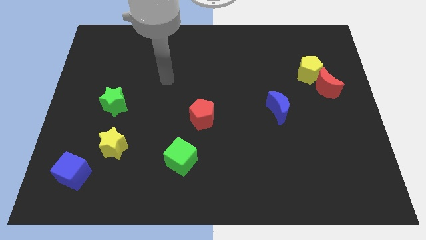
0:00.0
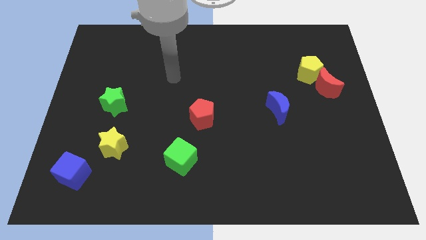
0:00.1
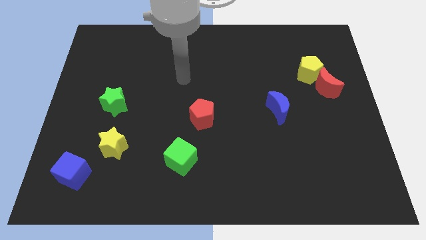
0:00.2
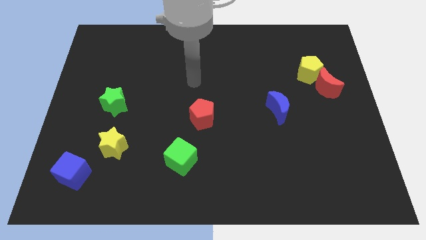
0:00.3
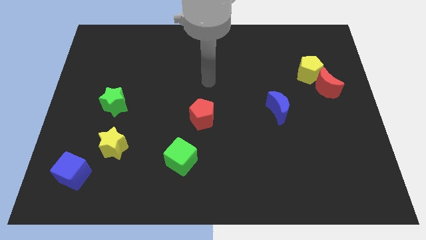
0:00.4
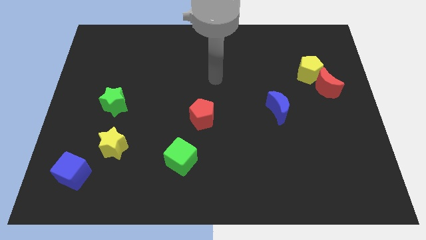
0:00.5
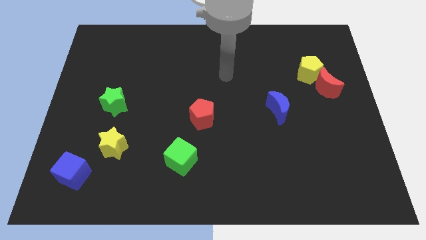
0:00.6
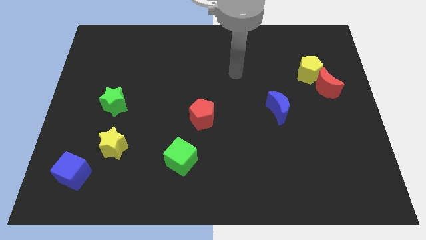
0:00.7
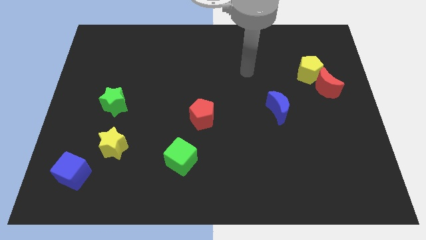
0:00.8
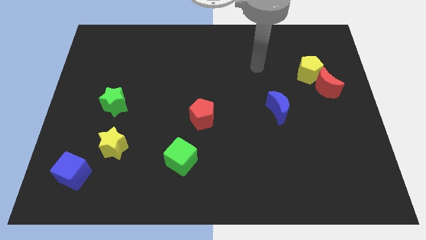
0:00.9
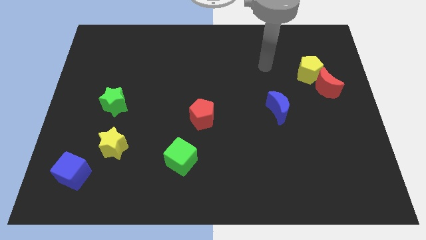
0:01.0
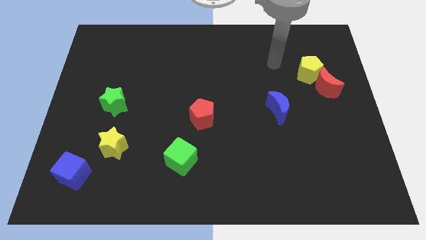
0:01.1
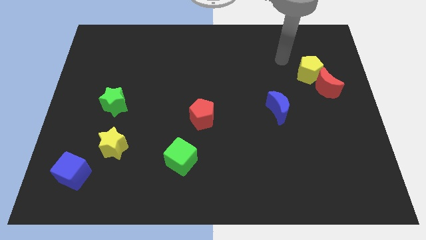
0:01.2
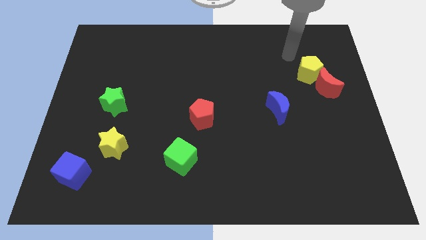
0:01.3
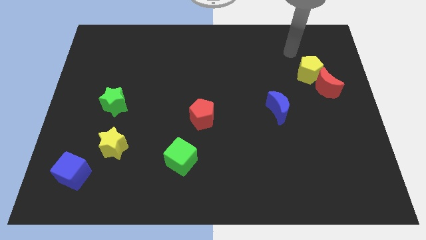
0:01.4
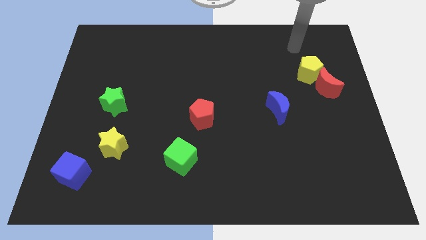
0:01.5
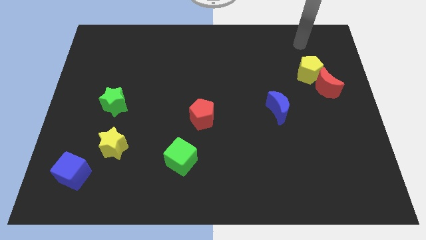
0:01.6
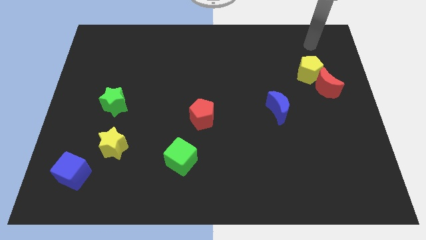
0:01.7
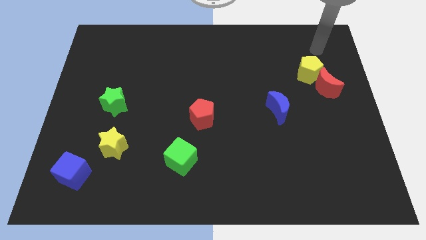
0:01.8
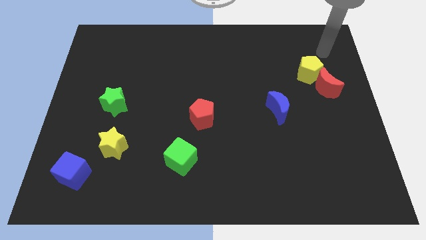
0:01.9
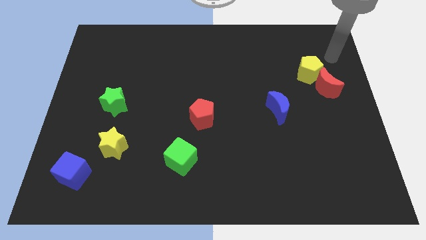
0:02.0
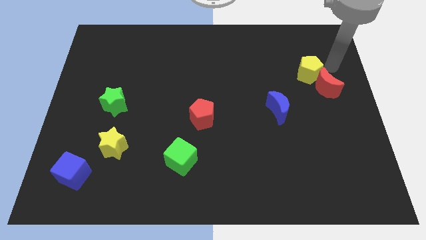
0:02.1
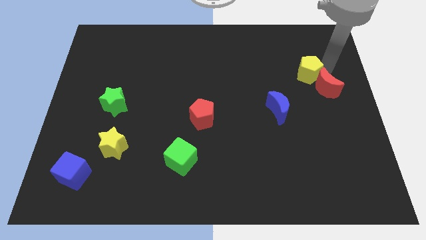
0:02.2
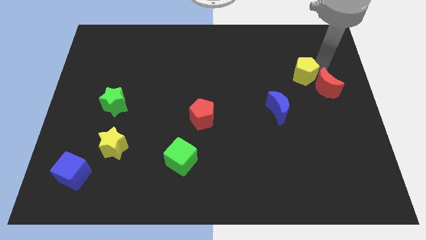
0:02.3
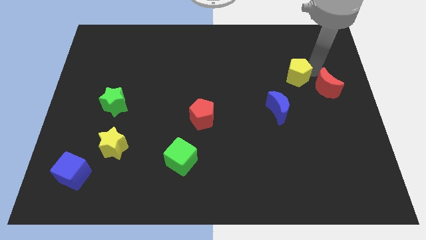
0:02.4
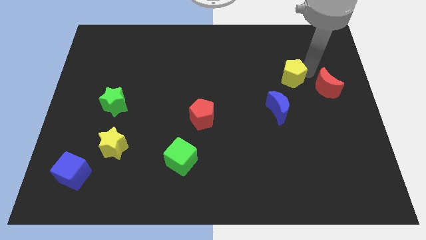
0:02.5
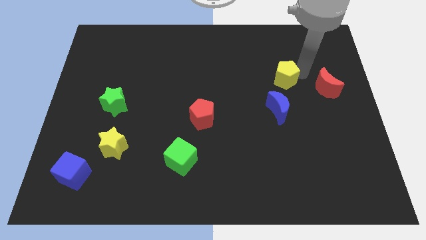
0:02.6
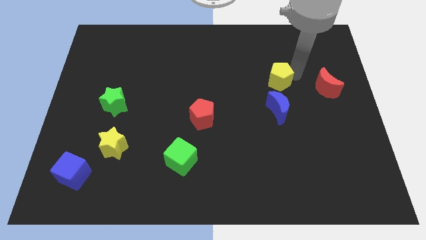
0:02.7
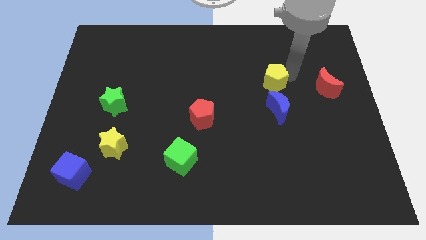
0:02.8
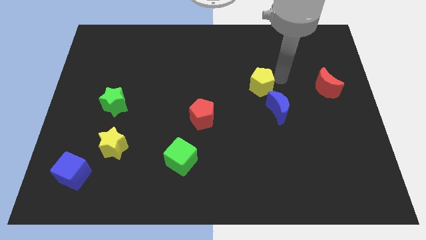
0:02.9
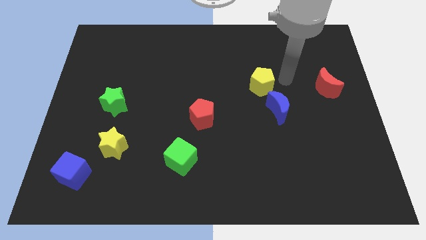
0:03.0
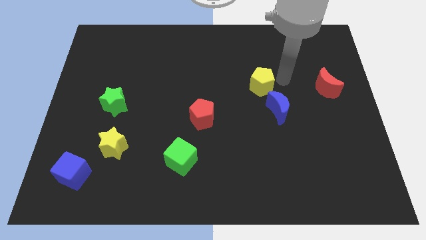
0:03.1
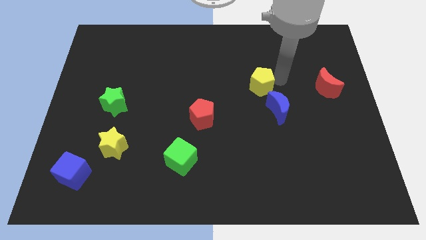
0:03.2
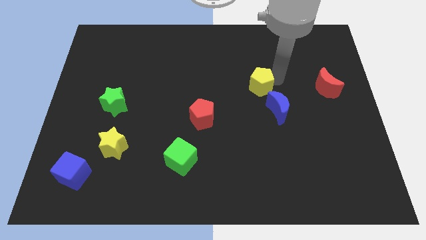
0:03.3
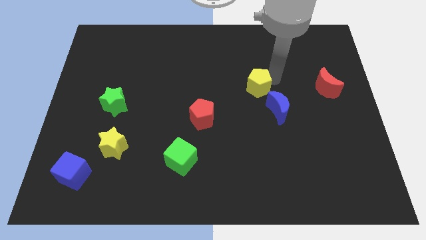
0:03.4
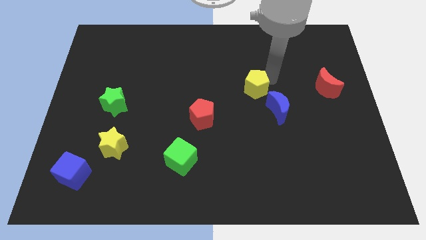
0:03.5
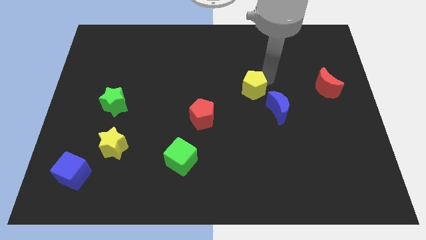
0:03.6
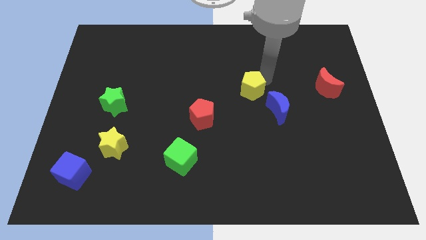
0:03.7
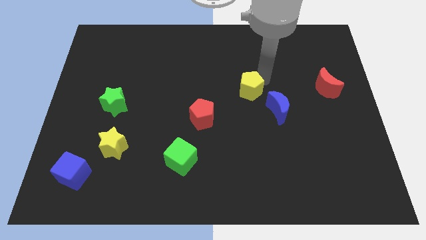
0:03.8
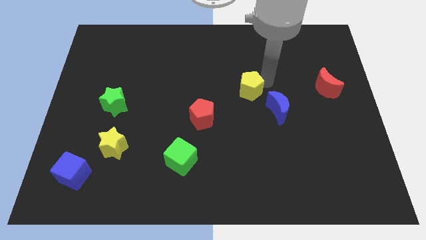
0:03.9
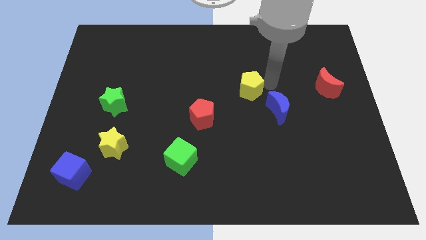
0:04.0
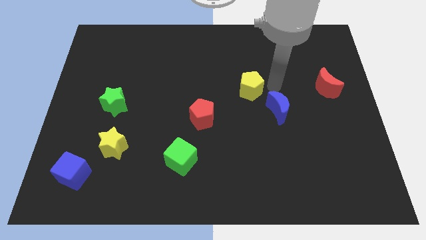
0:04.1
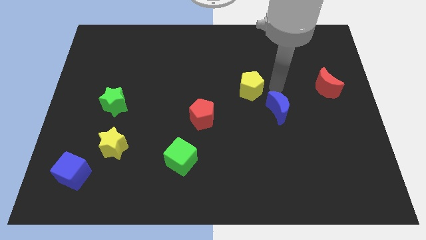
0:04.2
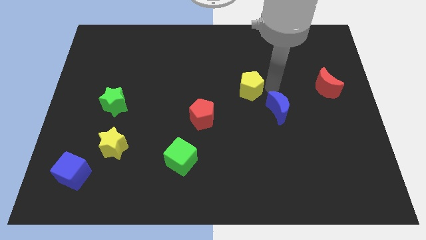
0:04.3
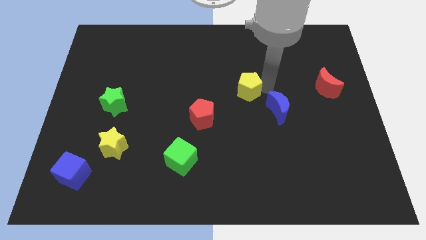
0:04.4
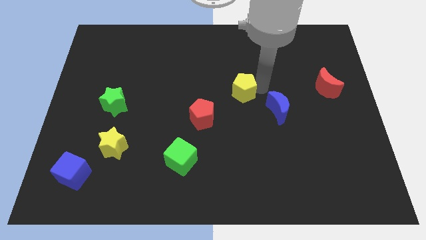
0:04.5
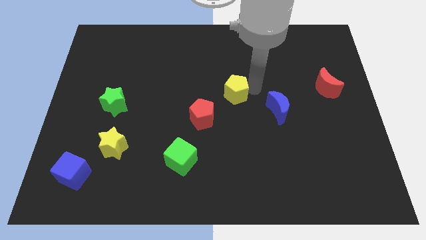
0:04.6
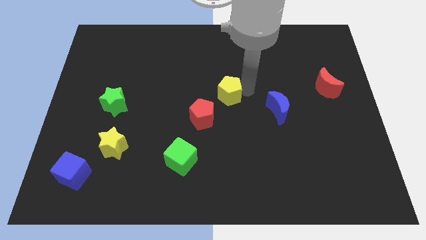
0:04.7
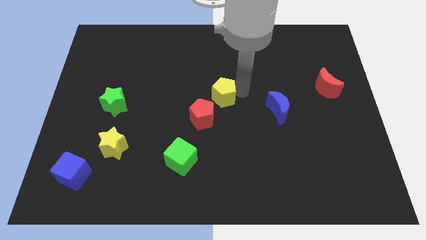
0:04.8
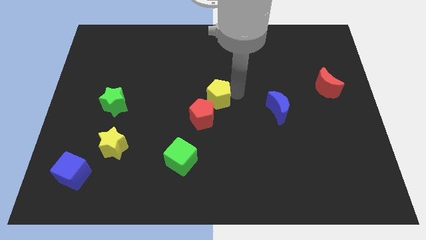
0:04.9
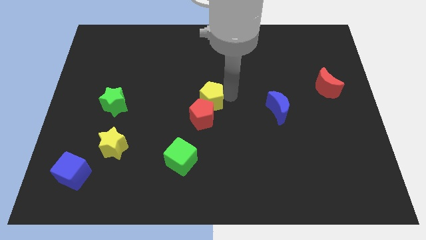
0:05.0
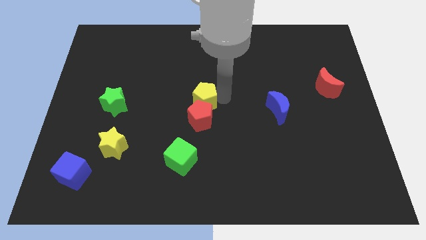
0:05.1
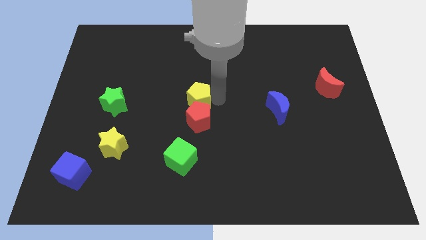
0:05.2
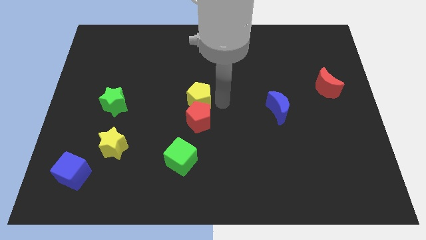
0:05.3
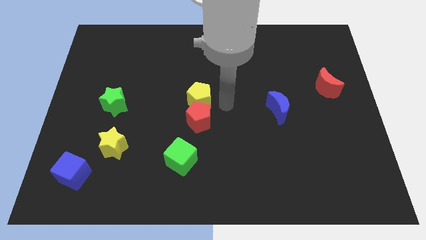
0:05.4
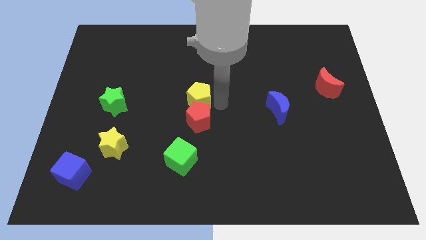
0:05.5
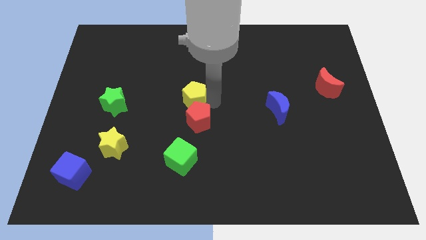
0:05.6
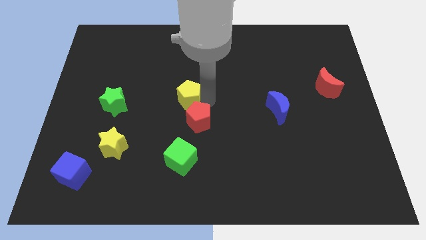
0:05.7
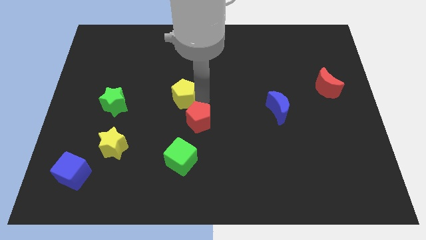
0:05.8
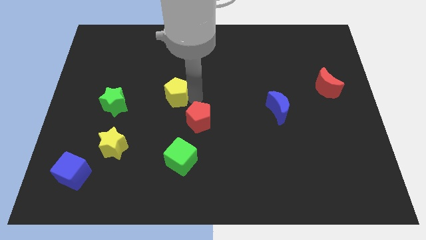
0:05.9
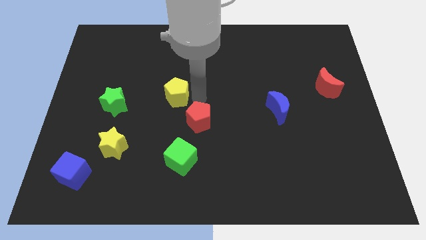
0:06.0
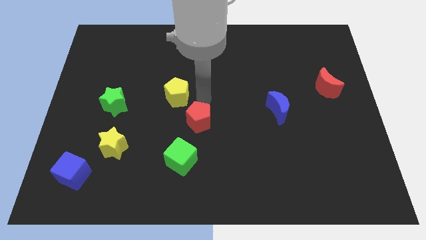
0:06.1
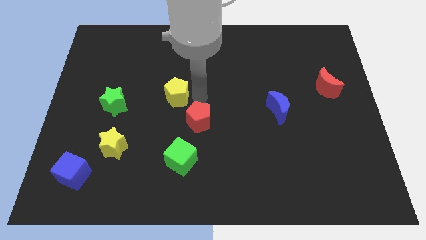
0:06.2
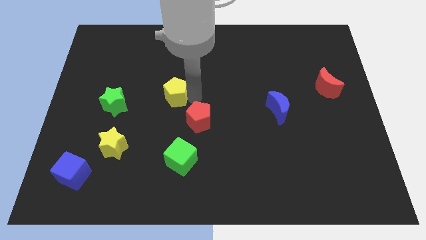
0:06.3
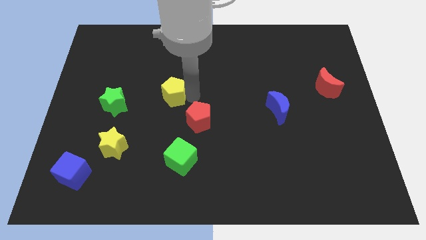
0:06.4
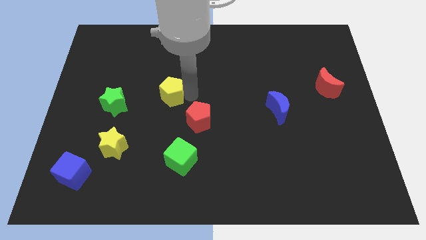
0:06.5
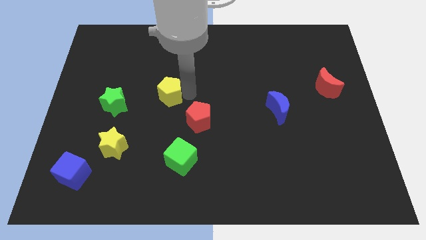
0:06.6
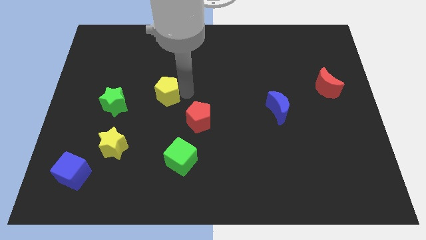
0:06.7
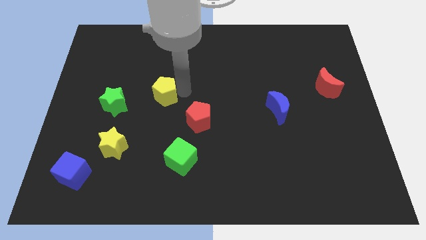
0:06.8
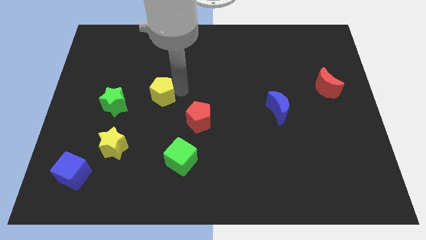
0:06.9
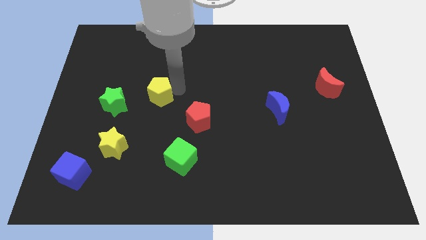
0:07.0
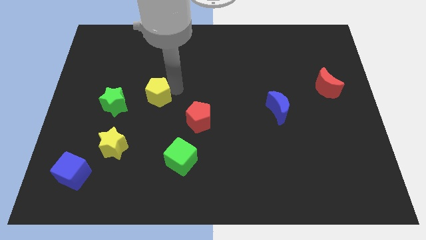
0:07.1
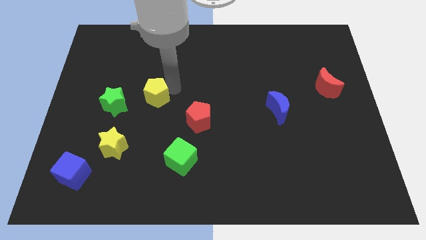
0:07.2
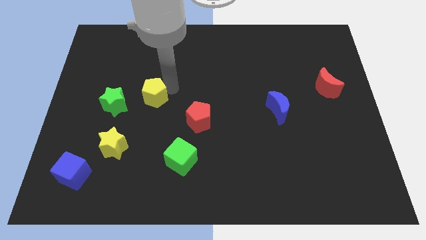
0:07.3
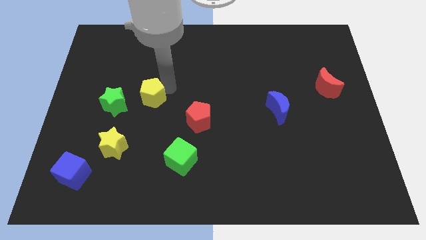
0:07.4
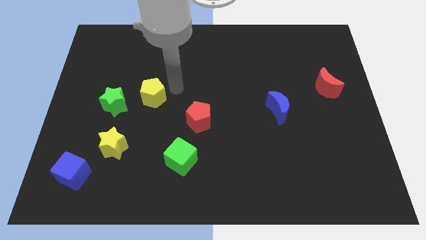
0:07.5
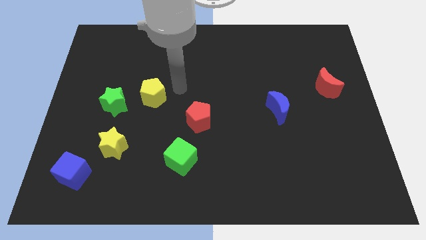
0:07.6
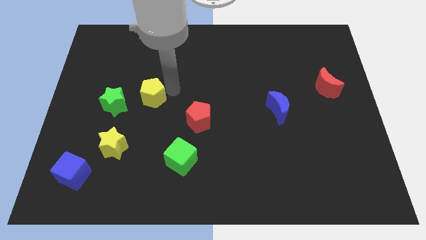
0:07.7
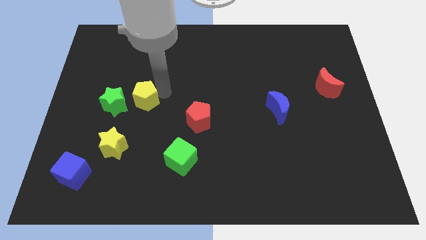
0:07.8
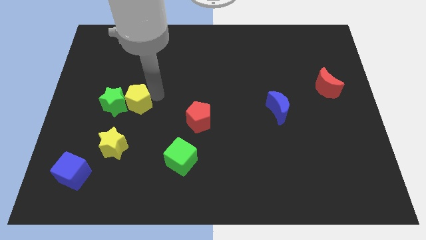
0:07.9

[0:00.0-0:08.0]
slide the yellow pentagon next to the green star
